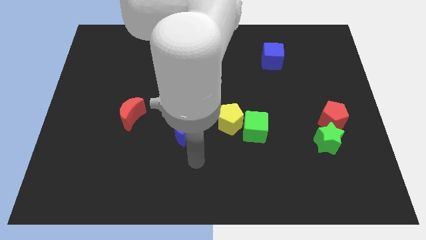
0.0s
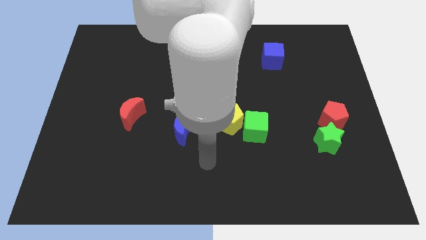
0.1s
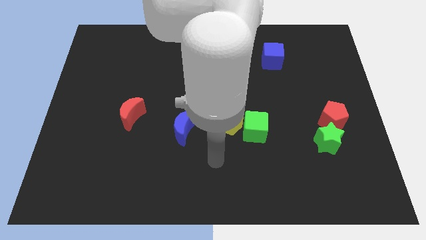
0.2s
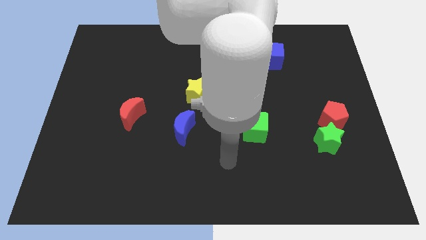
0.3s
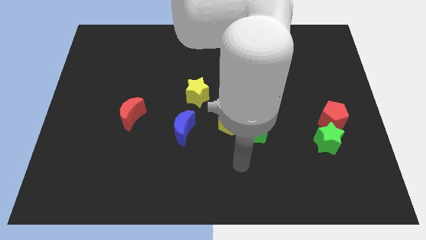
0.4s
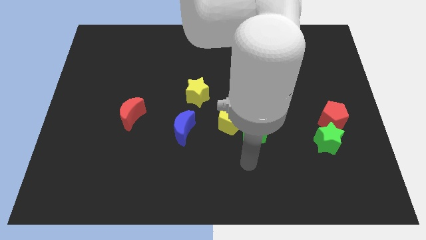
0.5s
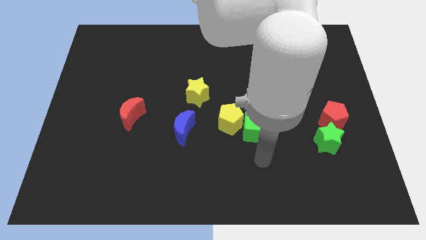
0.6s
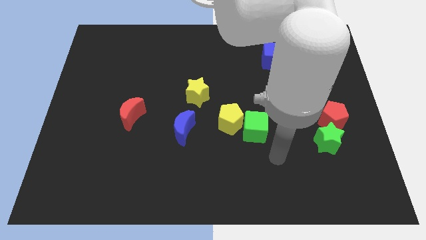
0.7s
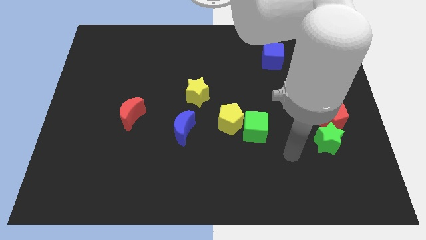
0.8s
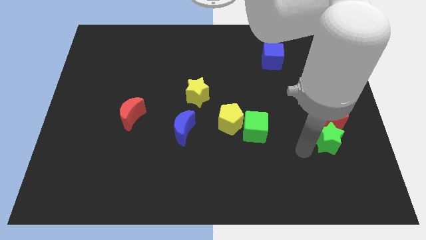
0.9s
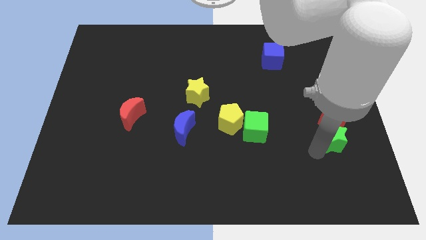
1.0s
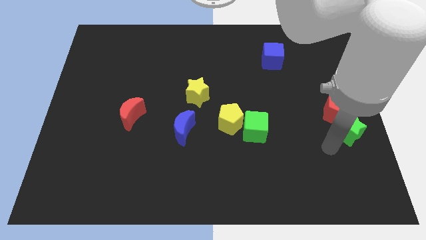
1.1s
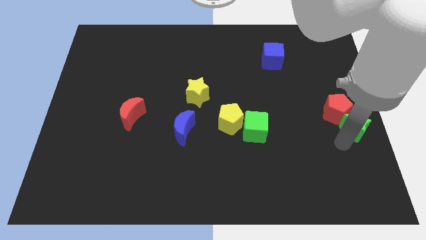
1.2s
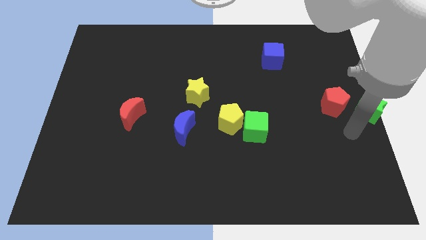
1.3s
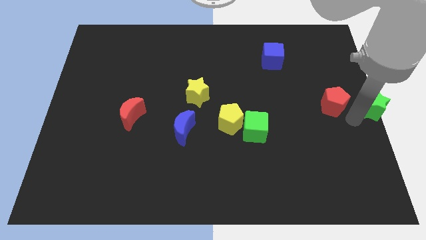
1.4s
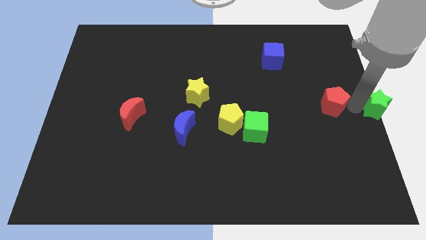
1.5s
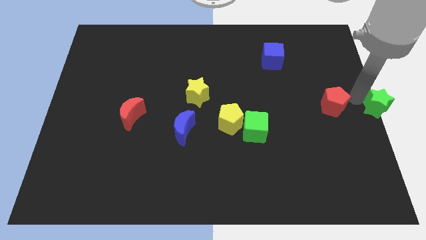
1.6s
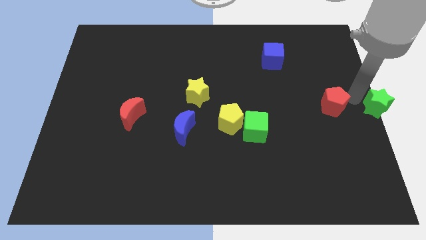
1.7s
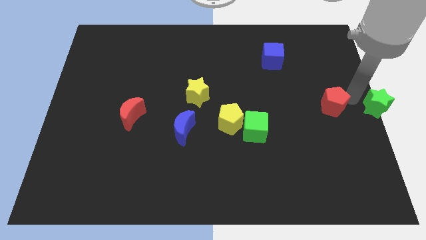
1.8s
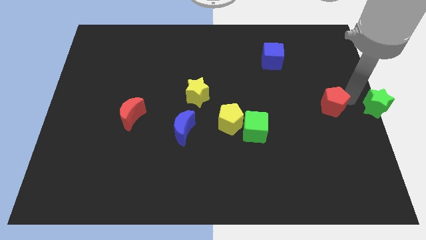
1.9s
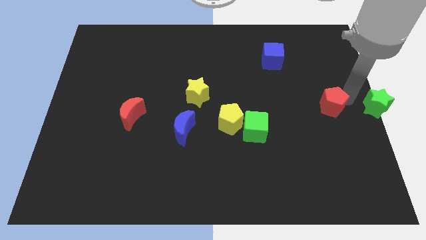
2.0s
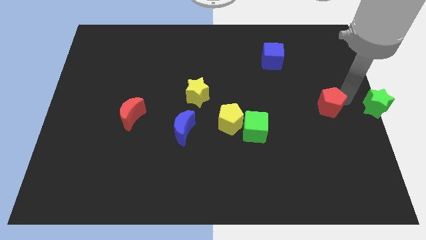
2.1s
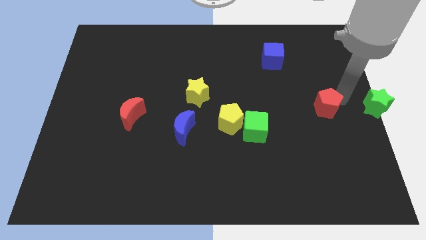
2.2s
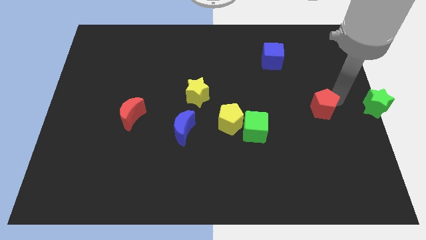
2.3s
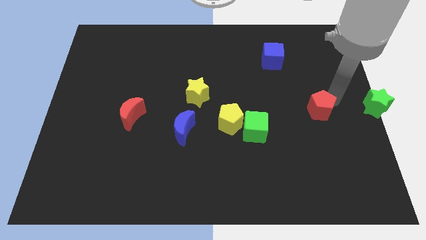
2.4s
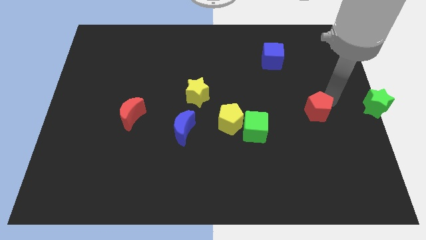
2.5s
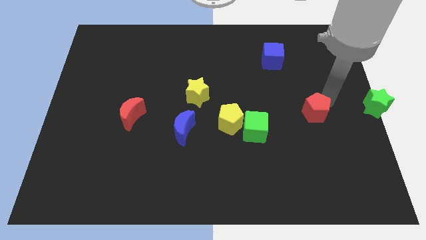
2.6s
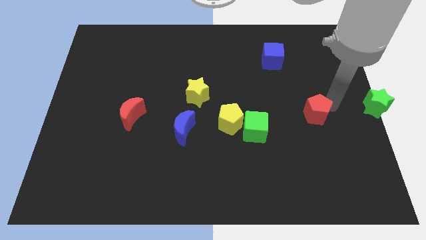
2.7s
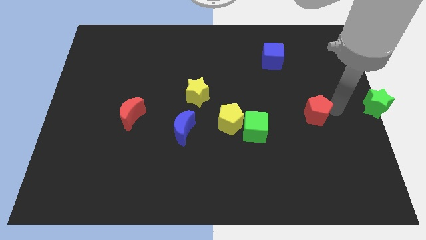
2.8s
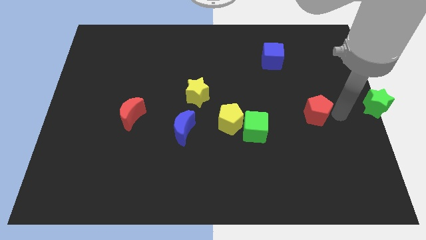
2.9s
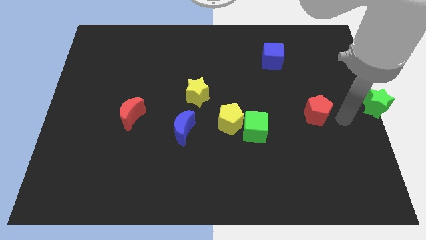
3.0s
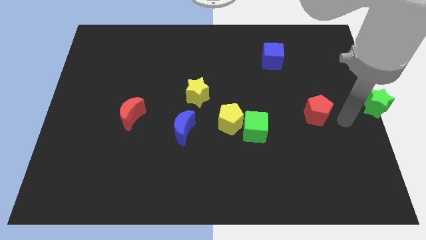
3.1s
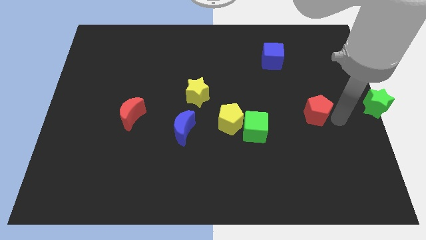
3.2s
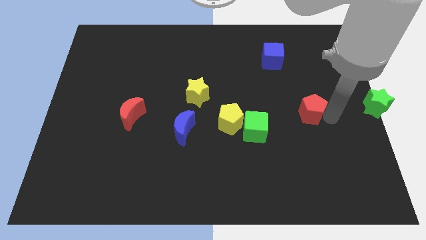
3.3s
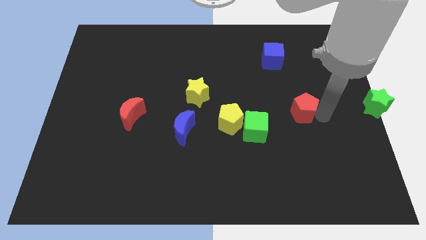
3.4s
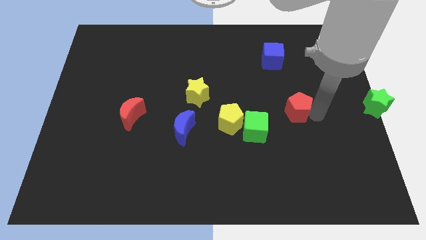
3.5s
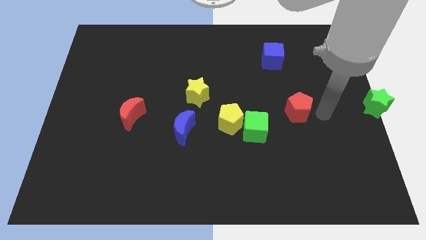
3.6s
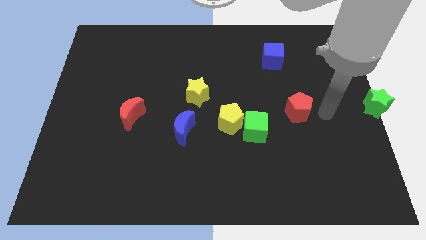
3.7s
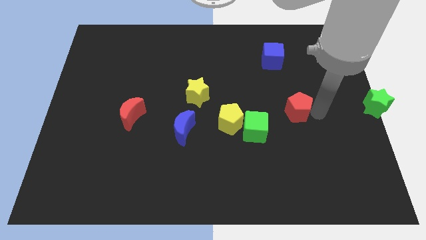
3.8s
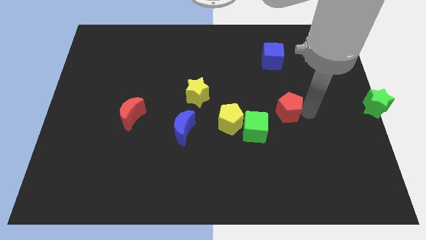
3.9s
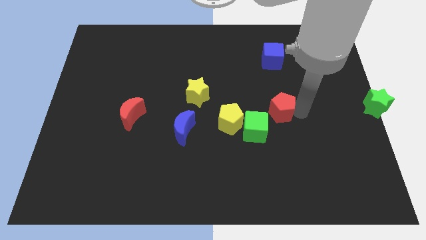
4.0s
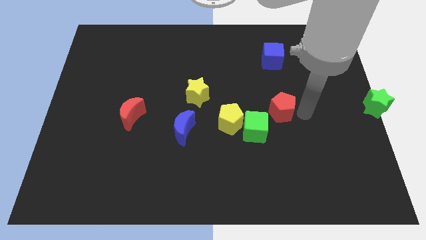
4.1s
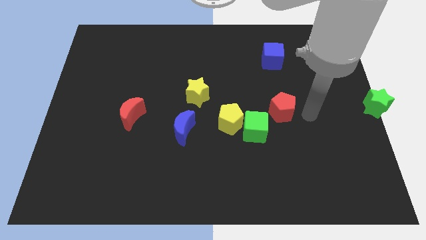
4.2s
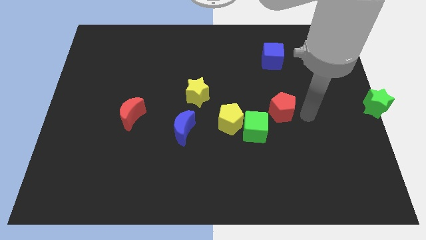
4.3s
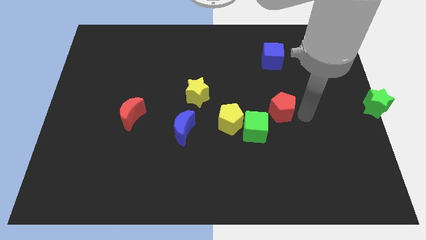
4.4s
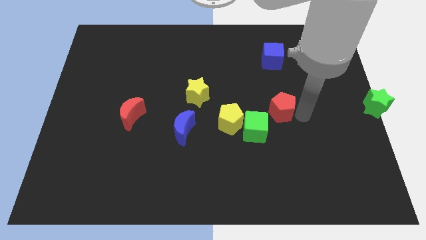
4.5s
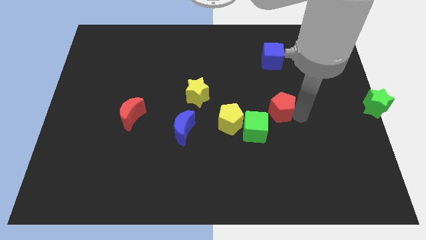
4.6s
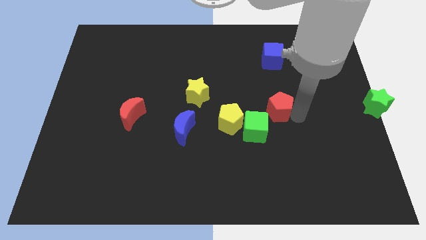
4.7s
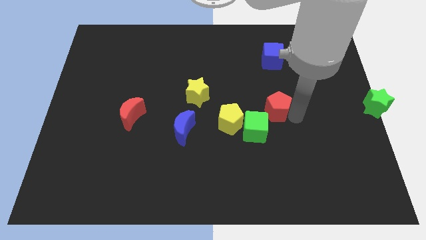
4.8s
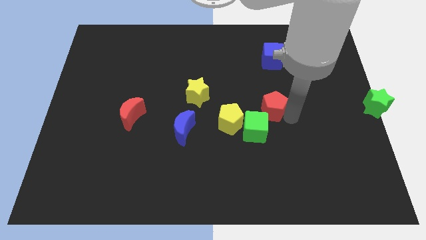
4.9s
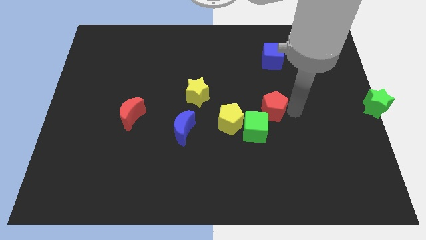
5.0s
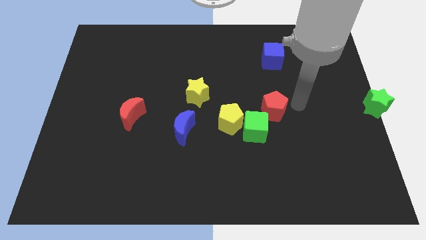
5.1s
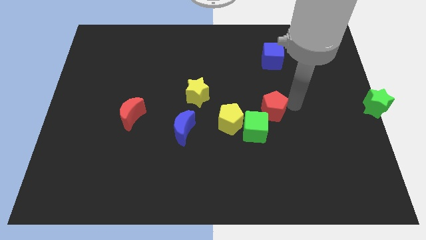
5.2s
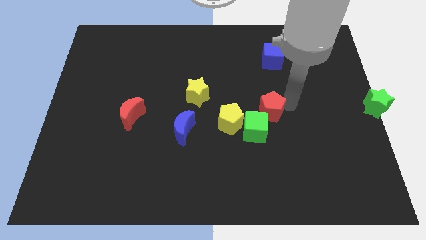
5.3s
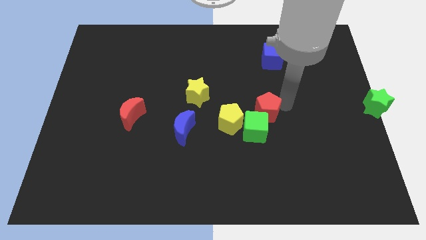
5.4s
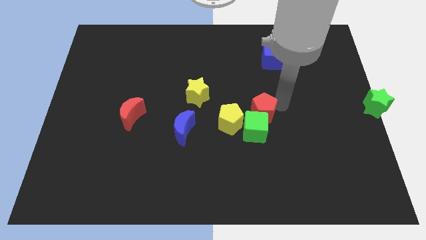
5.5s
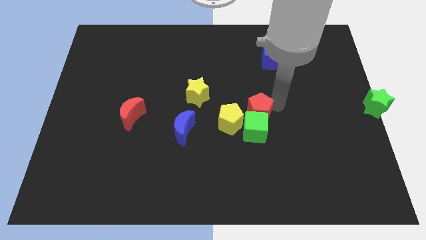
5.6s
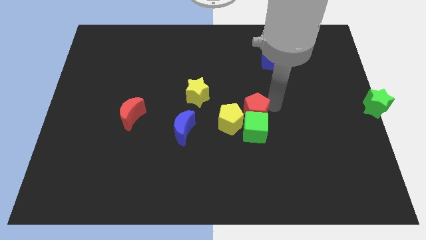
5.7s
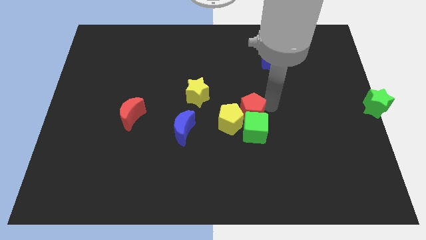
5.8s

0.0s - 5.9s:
push the red pentagon to the yellow pentagon
